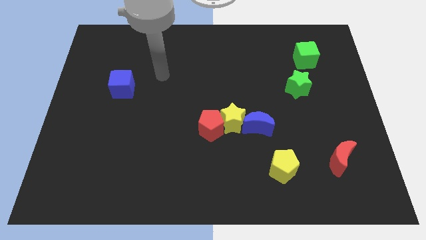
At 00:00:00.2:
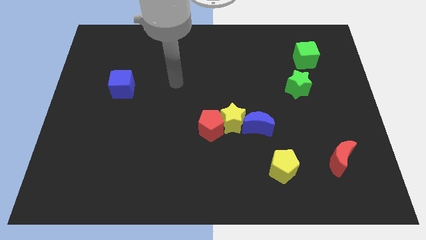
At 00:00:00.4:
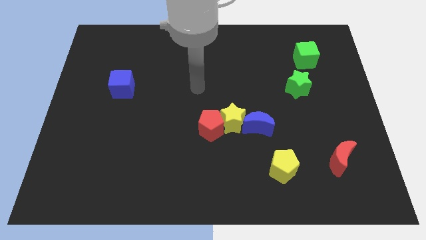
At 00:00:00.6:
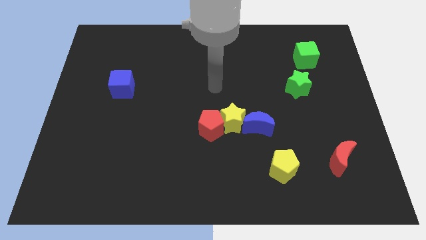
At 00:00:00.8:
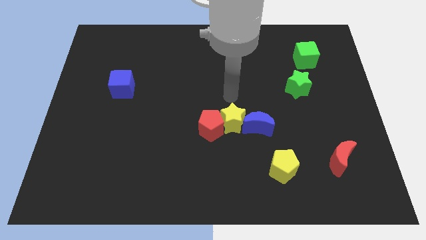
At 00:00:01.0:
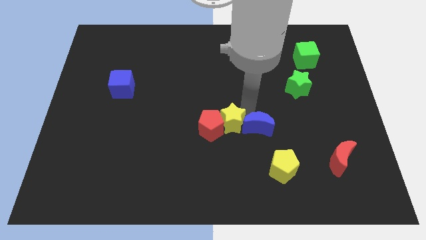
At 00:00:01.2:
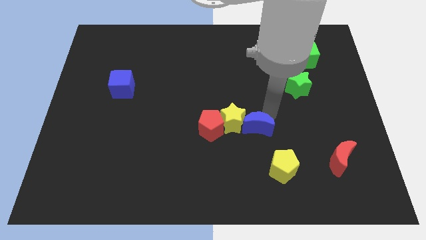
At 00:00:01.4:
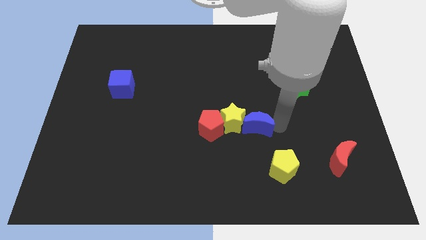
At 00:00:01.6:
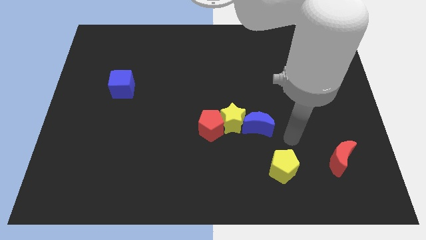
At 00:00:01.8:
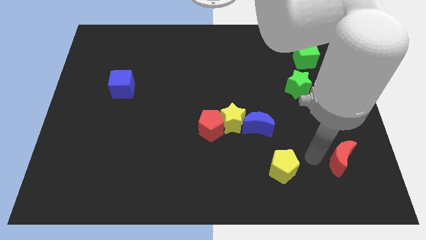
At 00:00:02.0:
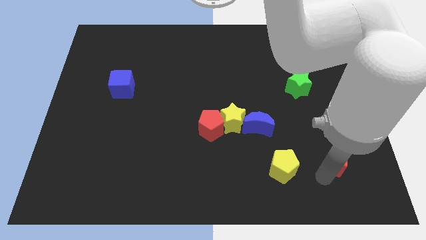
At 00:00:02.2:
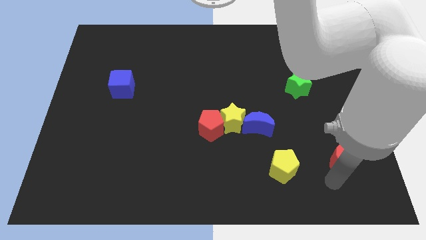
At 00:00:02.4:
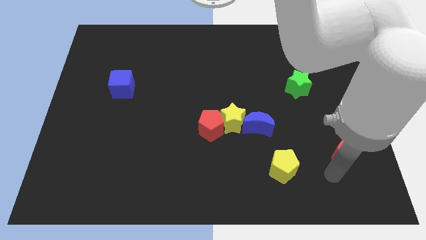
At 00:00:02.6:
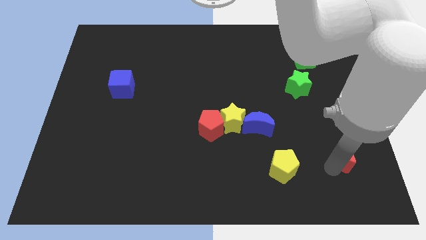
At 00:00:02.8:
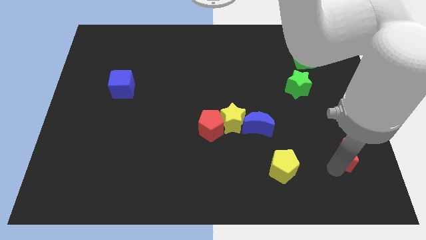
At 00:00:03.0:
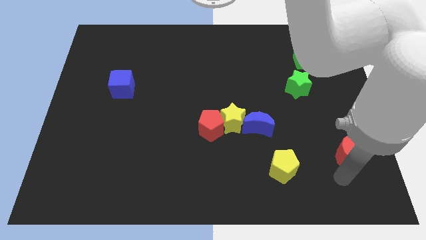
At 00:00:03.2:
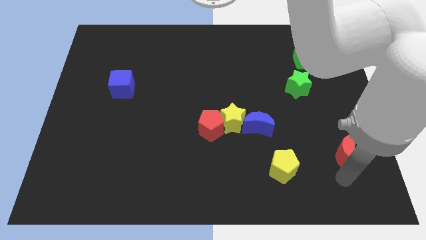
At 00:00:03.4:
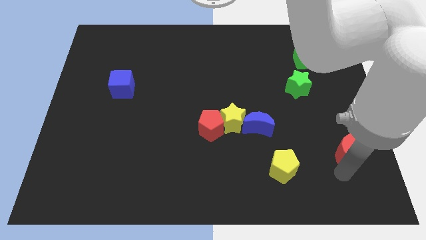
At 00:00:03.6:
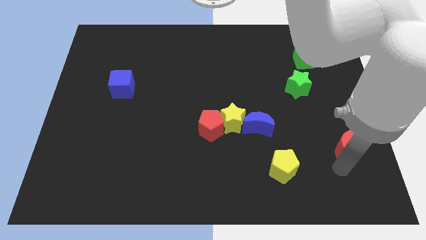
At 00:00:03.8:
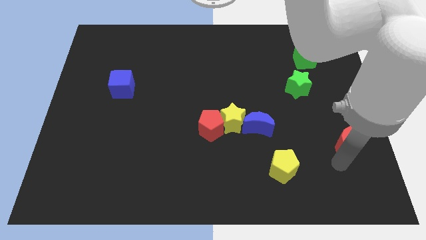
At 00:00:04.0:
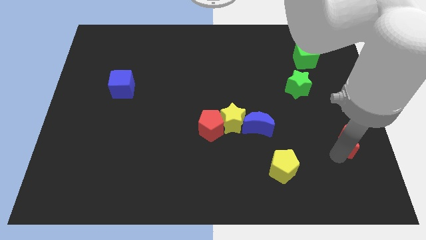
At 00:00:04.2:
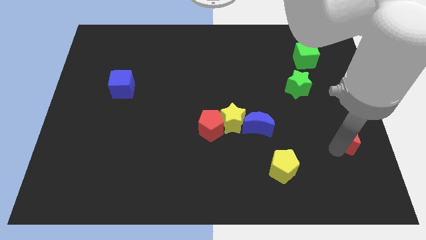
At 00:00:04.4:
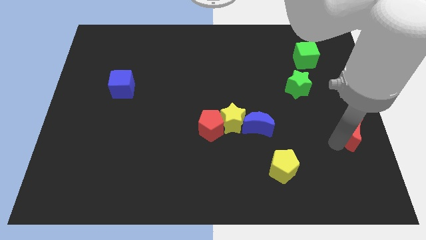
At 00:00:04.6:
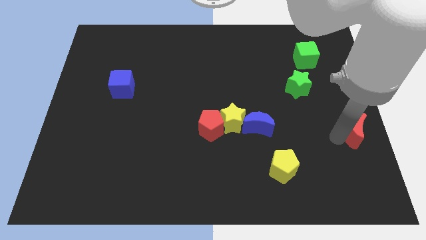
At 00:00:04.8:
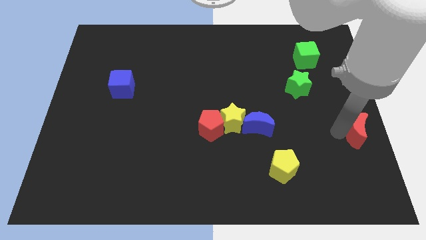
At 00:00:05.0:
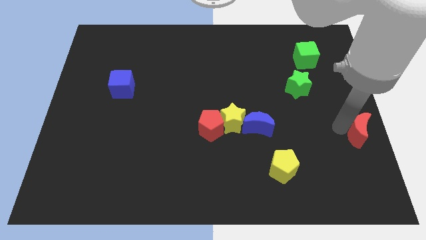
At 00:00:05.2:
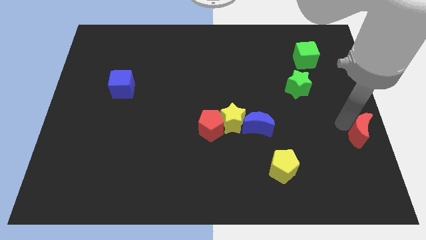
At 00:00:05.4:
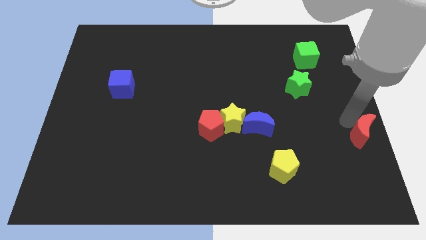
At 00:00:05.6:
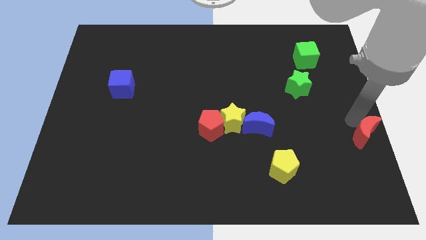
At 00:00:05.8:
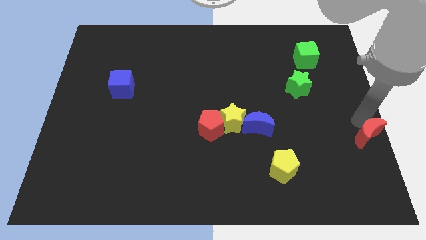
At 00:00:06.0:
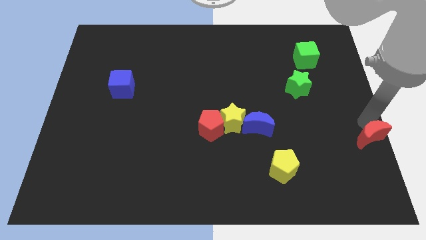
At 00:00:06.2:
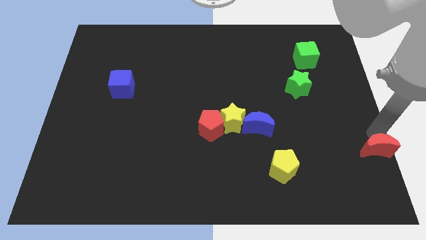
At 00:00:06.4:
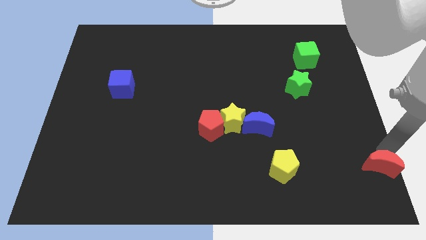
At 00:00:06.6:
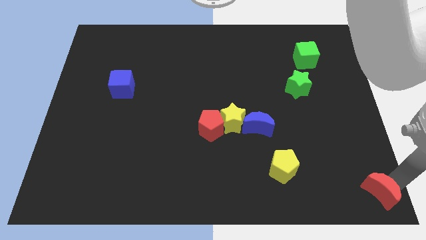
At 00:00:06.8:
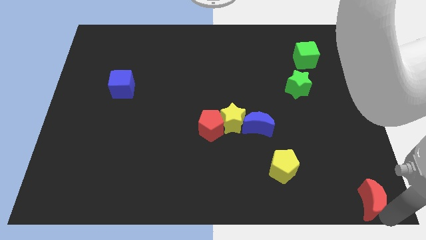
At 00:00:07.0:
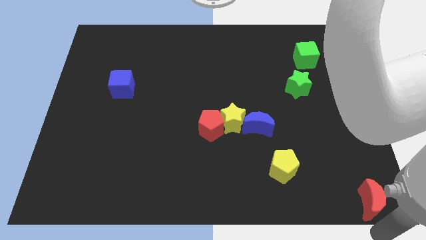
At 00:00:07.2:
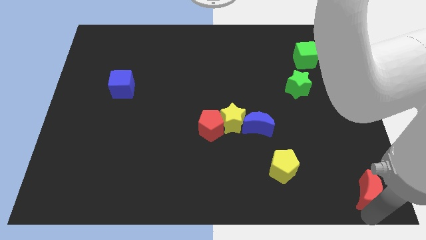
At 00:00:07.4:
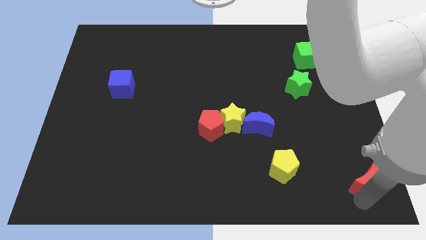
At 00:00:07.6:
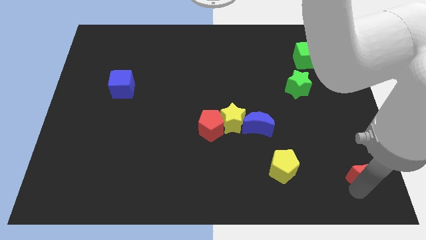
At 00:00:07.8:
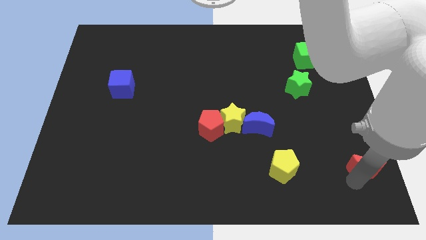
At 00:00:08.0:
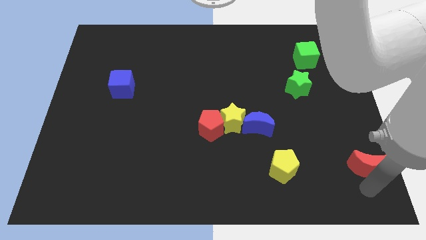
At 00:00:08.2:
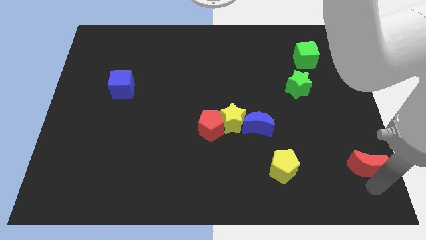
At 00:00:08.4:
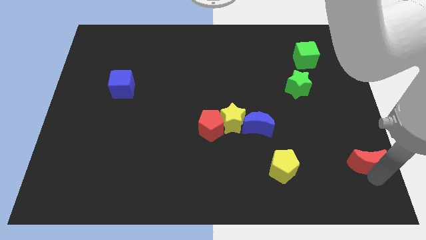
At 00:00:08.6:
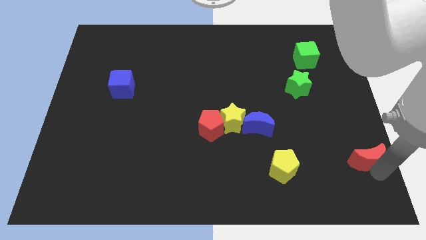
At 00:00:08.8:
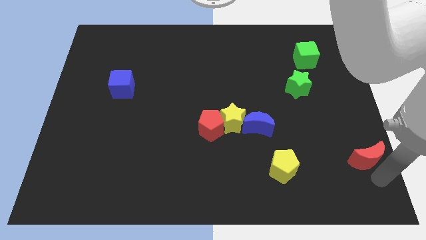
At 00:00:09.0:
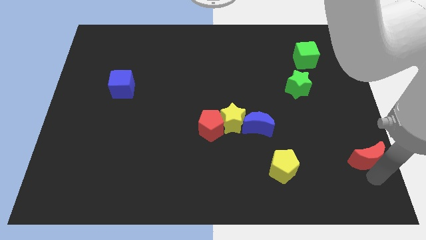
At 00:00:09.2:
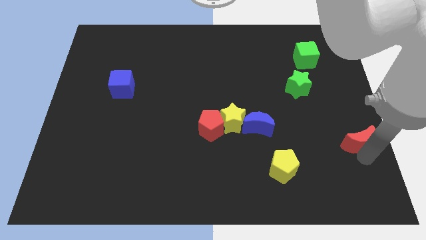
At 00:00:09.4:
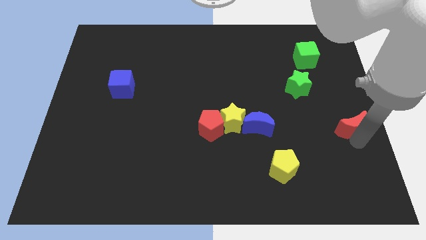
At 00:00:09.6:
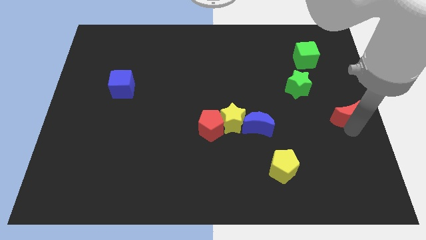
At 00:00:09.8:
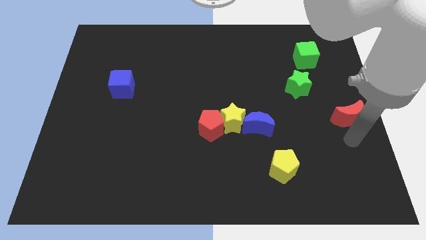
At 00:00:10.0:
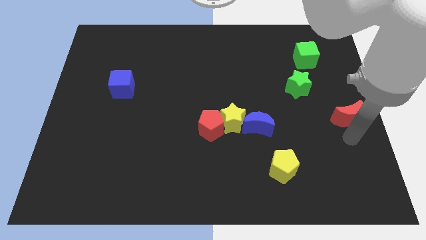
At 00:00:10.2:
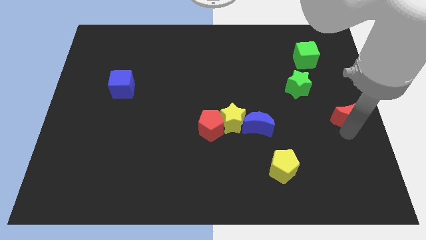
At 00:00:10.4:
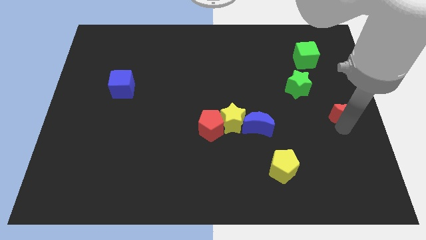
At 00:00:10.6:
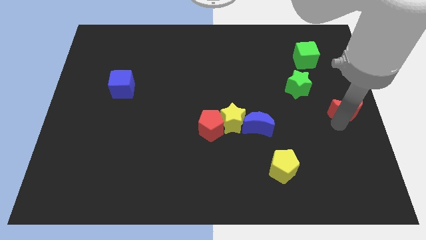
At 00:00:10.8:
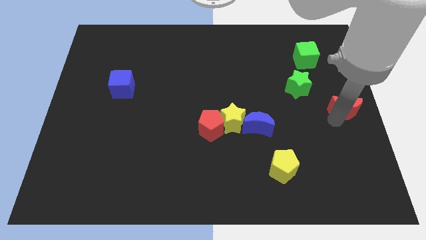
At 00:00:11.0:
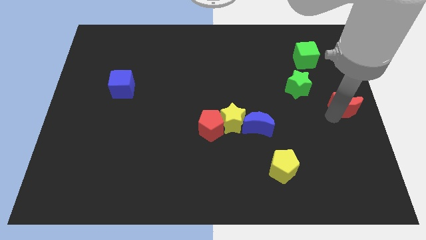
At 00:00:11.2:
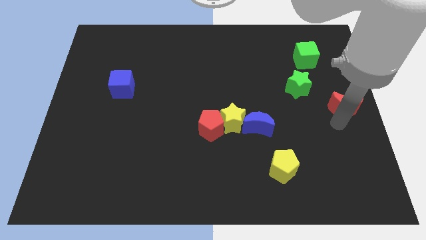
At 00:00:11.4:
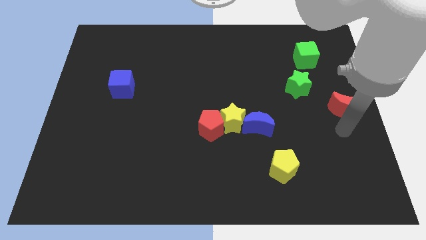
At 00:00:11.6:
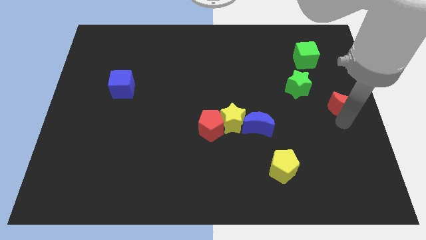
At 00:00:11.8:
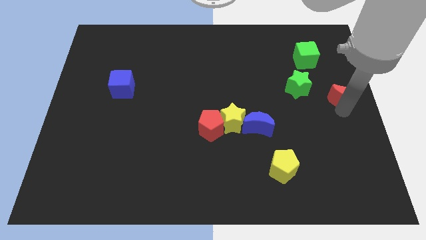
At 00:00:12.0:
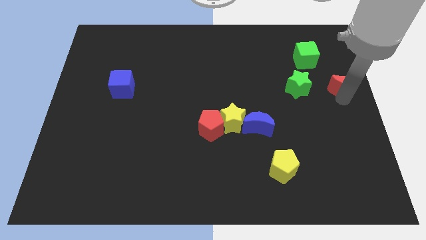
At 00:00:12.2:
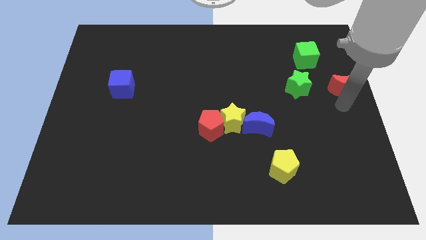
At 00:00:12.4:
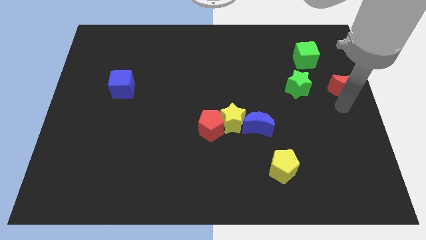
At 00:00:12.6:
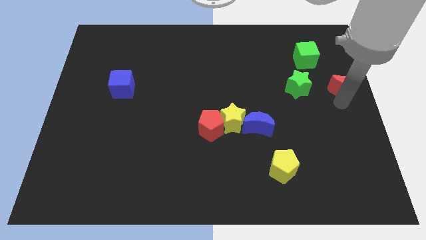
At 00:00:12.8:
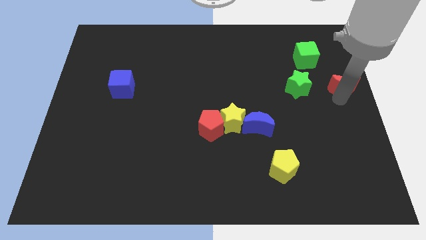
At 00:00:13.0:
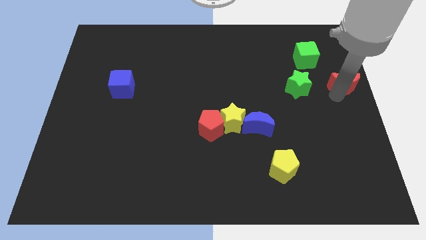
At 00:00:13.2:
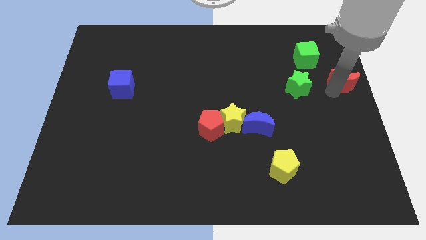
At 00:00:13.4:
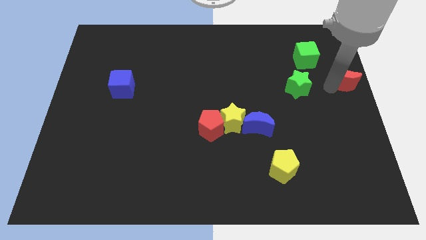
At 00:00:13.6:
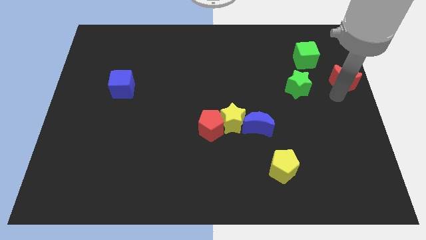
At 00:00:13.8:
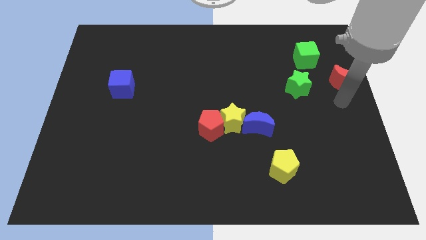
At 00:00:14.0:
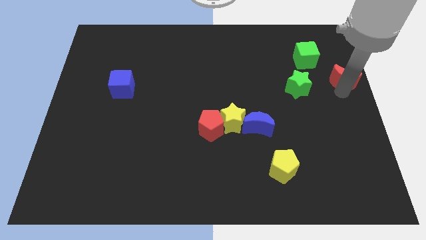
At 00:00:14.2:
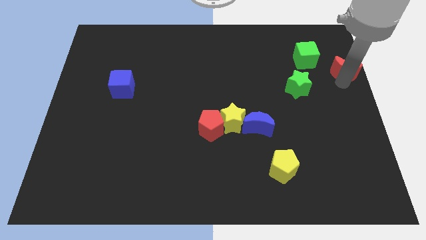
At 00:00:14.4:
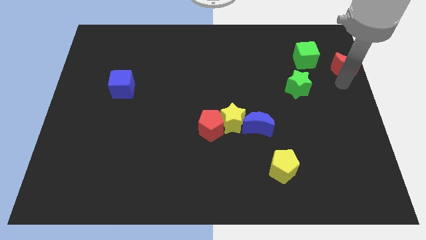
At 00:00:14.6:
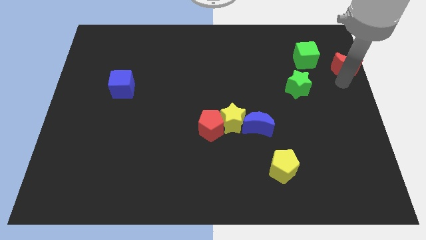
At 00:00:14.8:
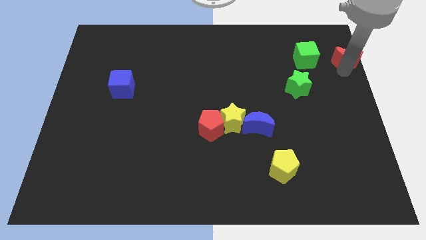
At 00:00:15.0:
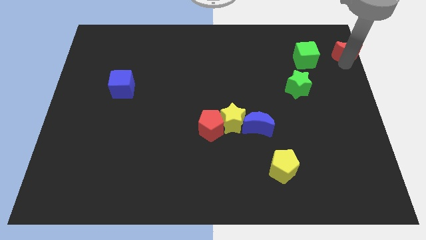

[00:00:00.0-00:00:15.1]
move the red moon to the top right of the board
